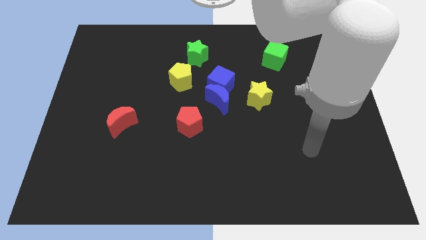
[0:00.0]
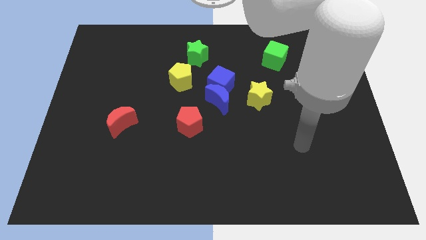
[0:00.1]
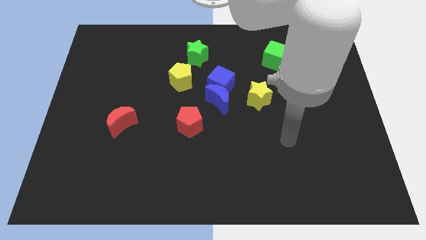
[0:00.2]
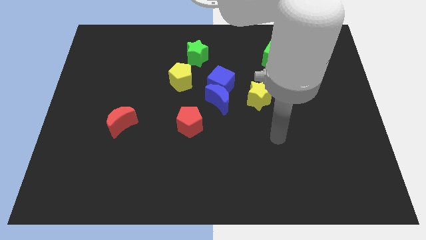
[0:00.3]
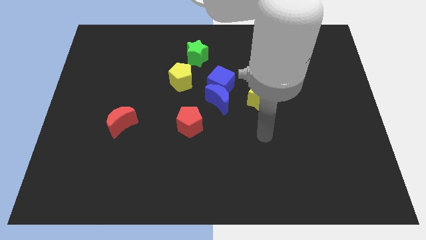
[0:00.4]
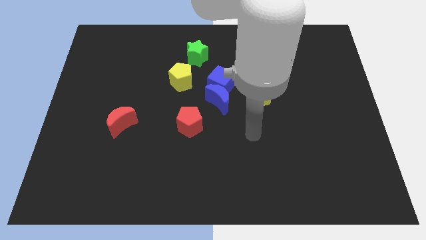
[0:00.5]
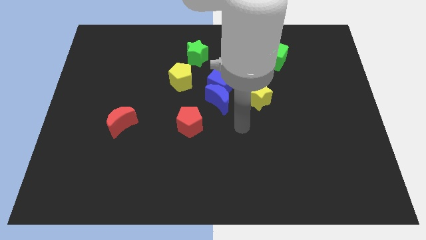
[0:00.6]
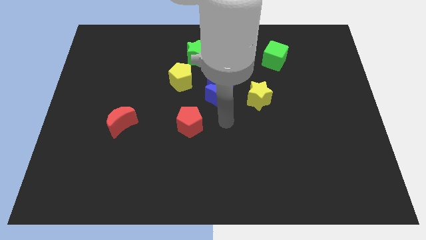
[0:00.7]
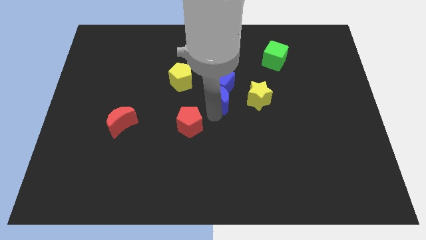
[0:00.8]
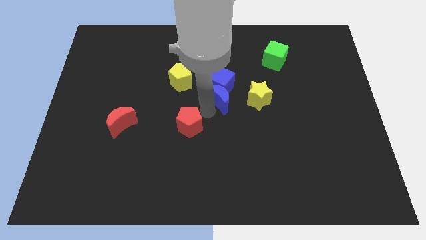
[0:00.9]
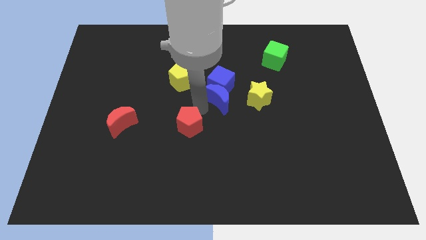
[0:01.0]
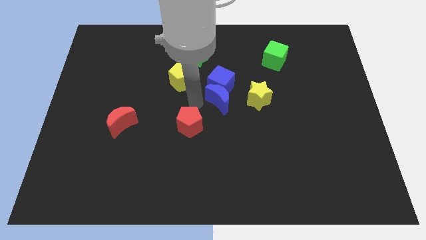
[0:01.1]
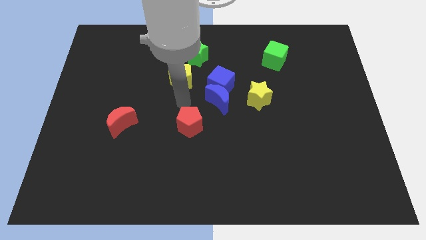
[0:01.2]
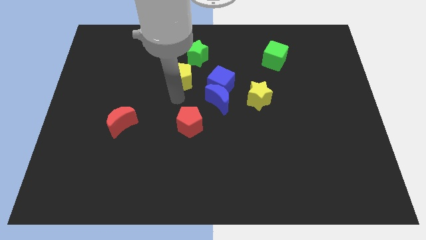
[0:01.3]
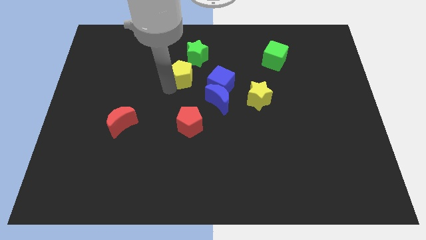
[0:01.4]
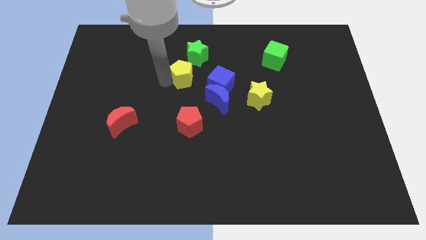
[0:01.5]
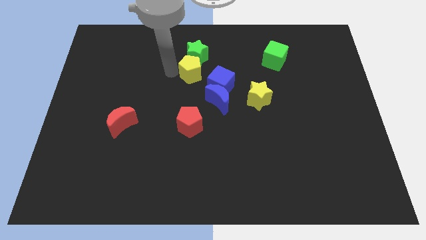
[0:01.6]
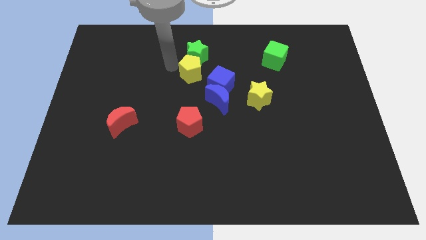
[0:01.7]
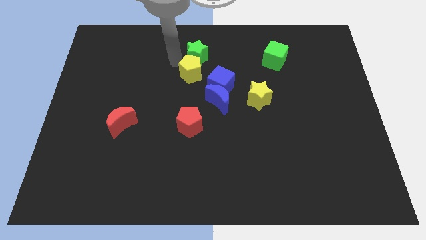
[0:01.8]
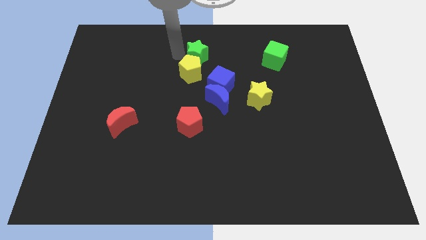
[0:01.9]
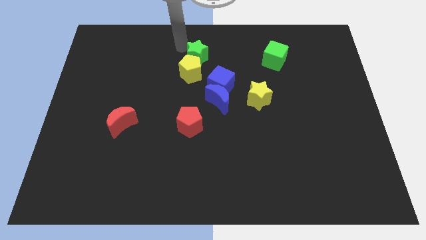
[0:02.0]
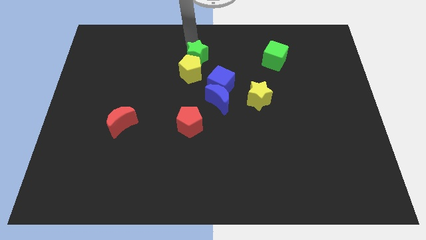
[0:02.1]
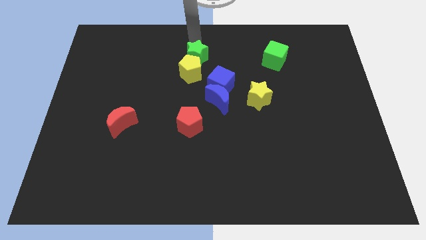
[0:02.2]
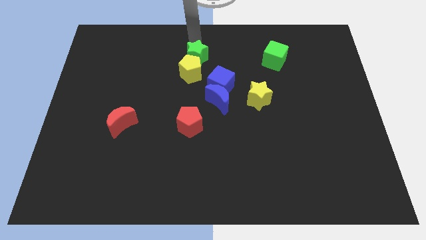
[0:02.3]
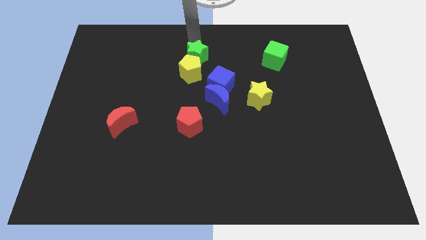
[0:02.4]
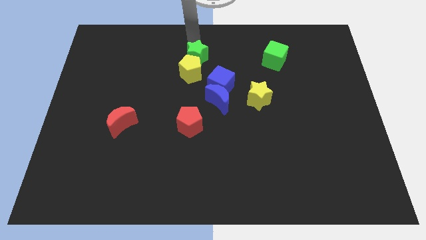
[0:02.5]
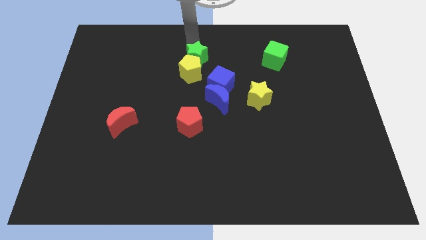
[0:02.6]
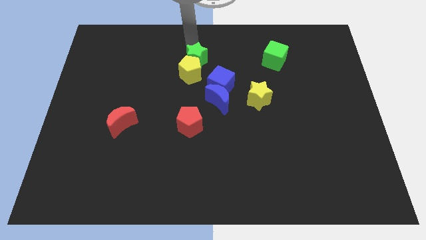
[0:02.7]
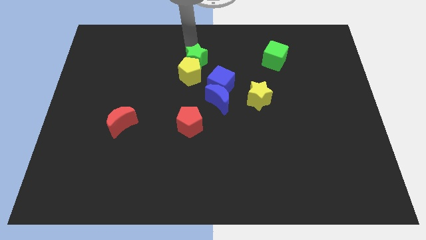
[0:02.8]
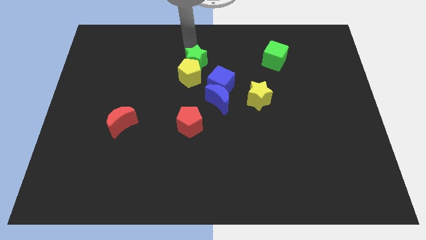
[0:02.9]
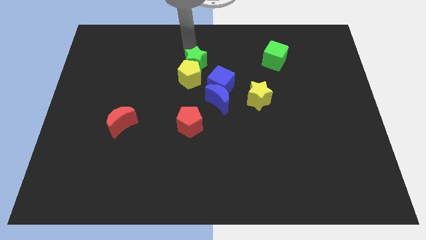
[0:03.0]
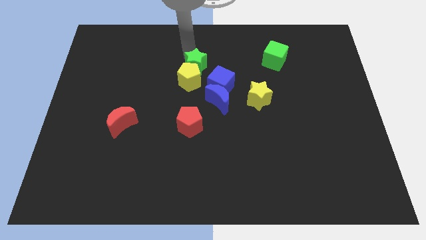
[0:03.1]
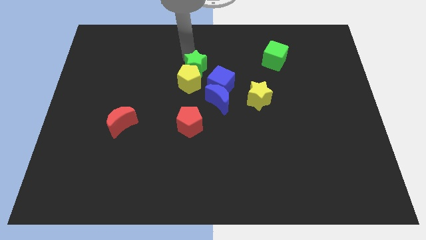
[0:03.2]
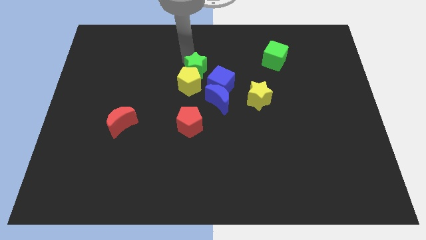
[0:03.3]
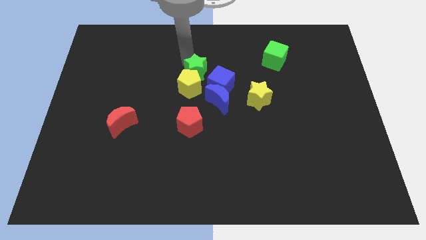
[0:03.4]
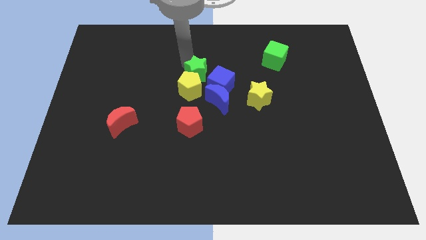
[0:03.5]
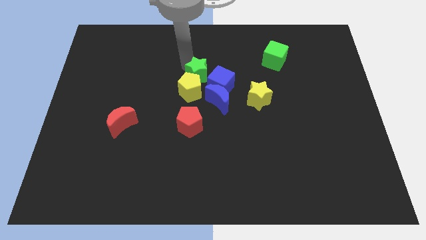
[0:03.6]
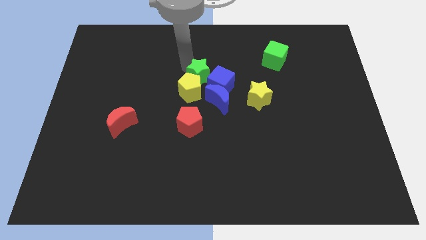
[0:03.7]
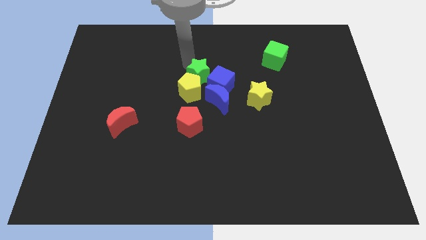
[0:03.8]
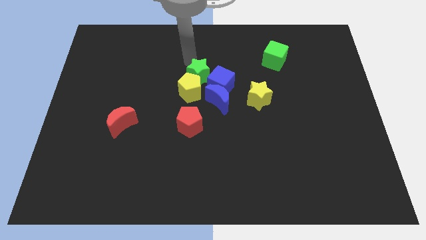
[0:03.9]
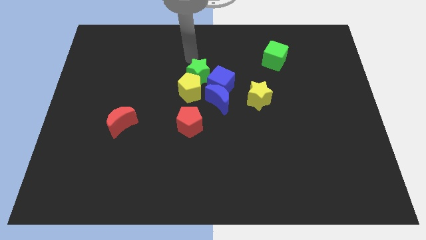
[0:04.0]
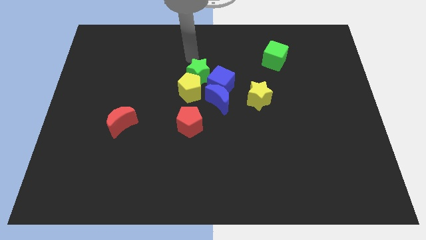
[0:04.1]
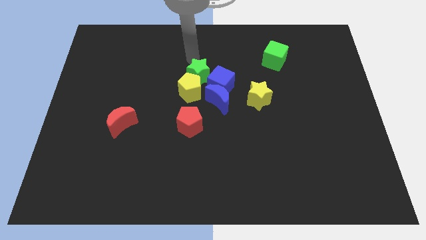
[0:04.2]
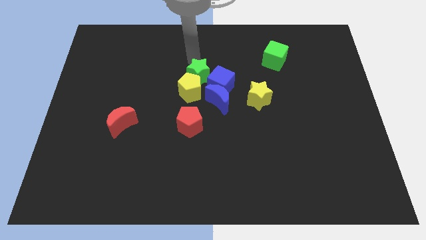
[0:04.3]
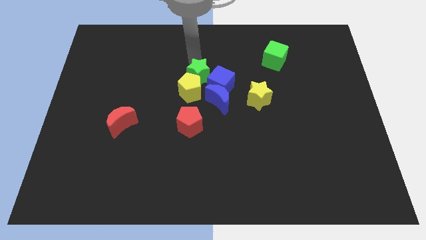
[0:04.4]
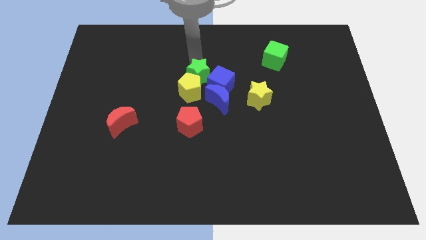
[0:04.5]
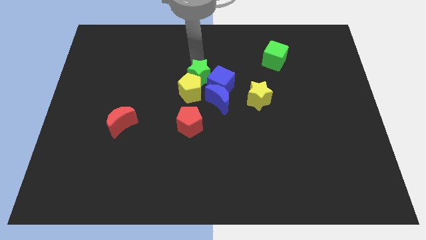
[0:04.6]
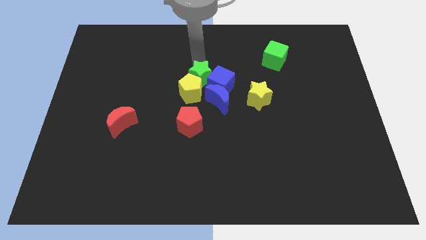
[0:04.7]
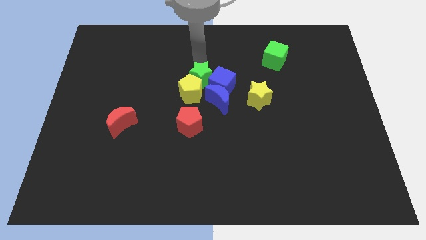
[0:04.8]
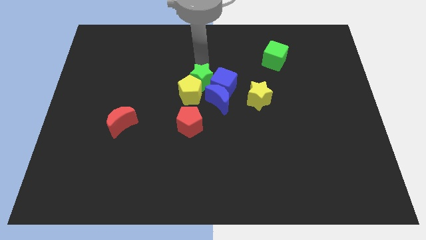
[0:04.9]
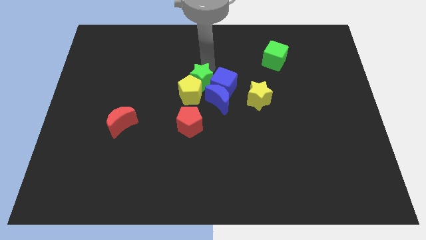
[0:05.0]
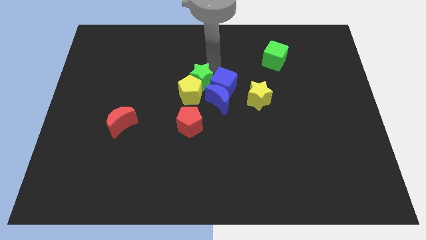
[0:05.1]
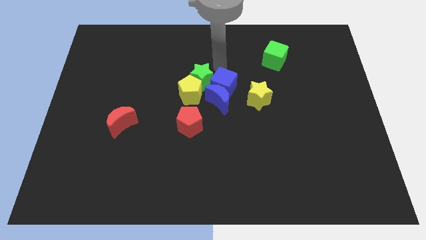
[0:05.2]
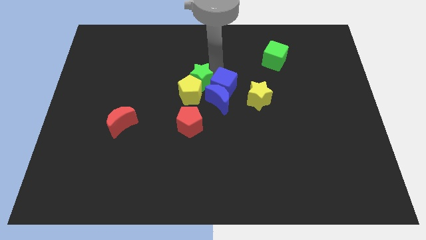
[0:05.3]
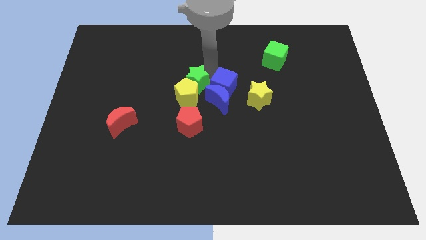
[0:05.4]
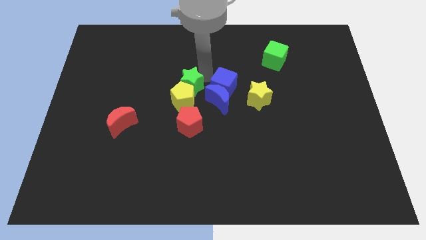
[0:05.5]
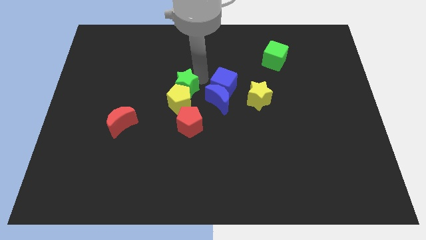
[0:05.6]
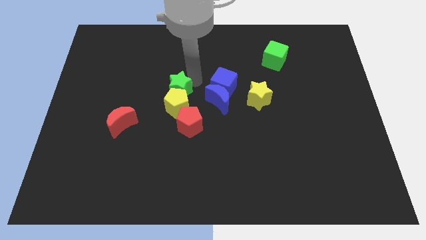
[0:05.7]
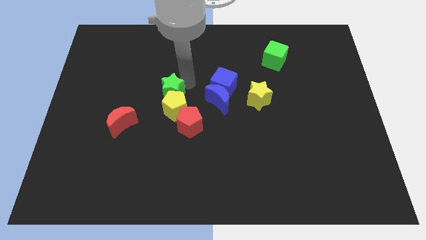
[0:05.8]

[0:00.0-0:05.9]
slide the green star to the top left of the red pentagon

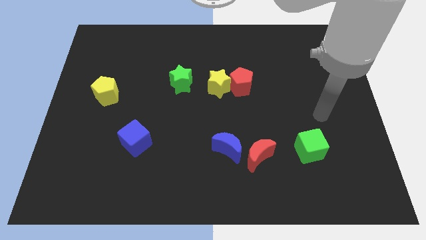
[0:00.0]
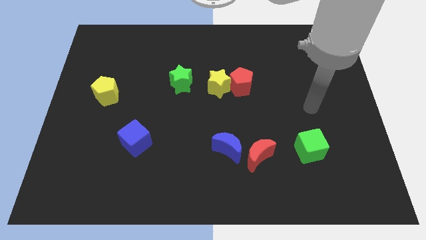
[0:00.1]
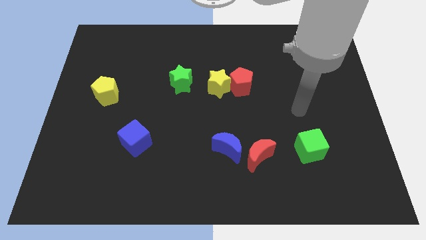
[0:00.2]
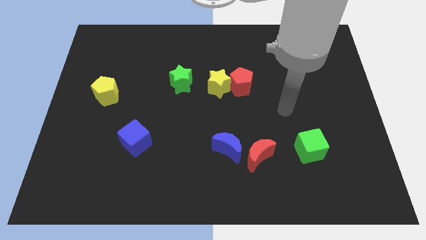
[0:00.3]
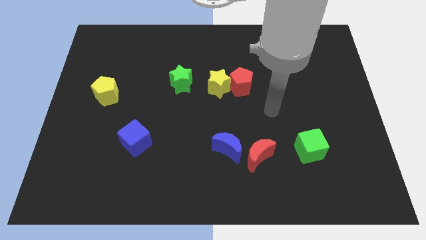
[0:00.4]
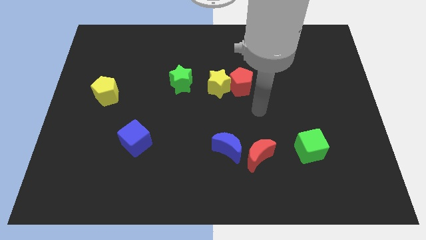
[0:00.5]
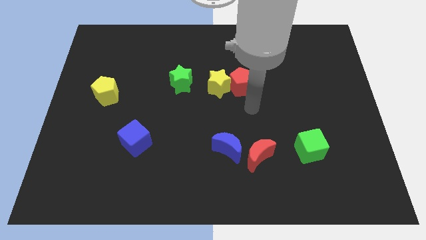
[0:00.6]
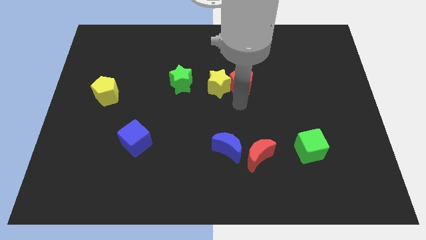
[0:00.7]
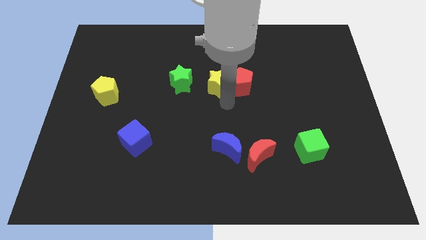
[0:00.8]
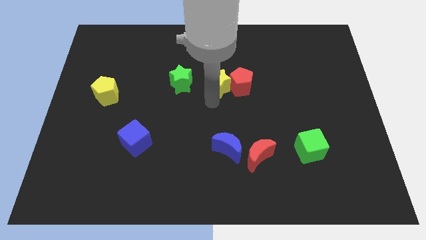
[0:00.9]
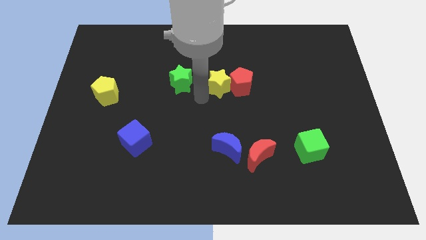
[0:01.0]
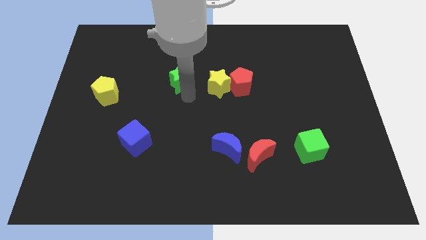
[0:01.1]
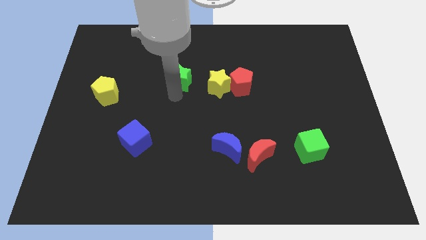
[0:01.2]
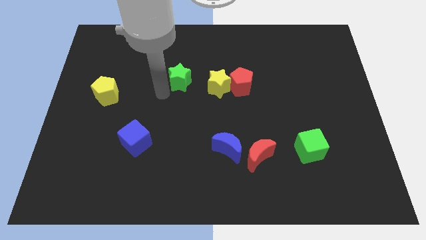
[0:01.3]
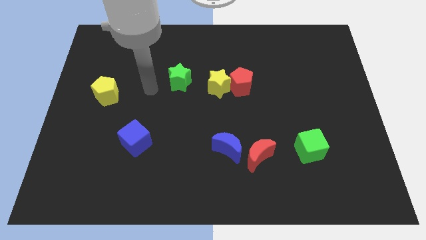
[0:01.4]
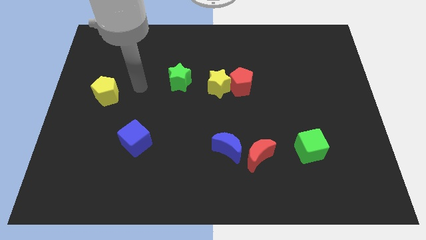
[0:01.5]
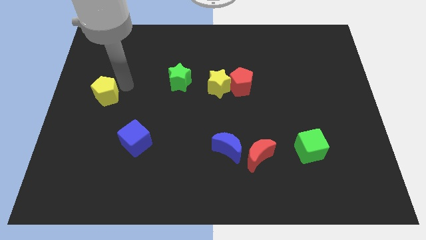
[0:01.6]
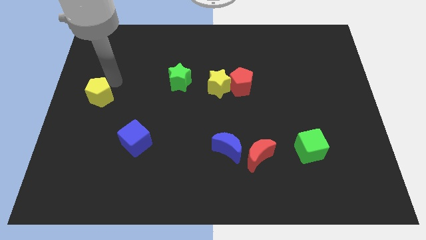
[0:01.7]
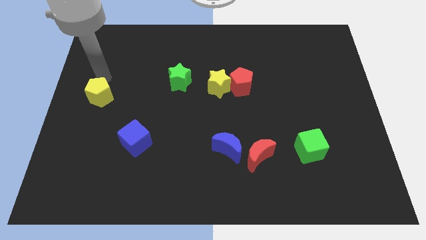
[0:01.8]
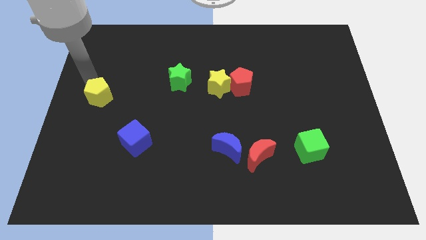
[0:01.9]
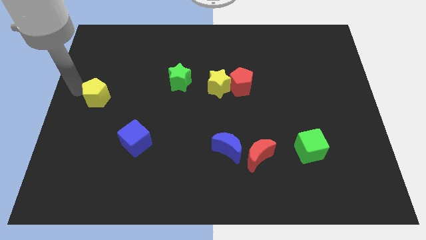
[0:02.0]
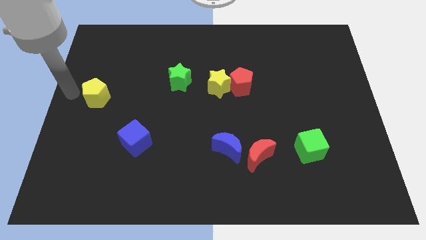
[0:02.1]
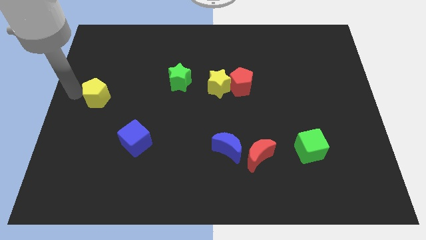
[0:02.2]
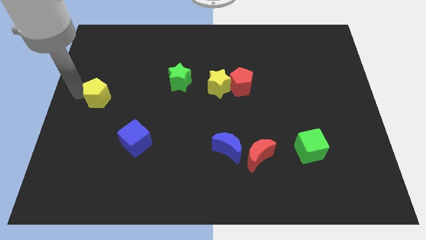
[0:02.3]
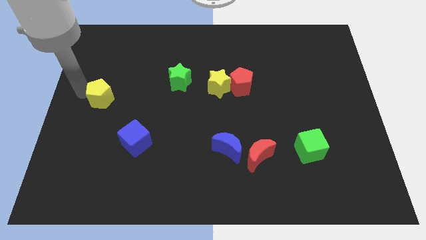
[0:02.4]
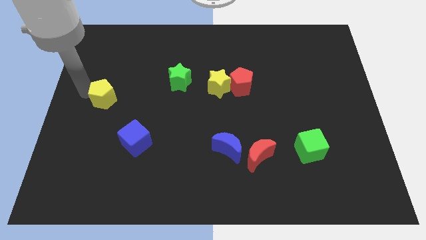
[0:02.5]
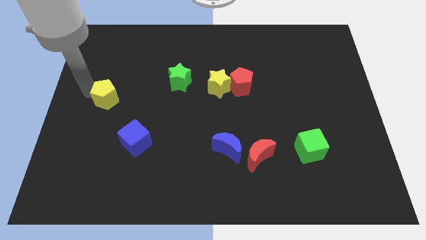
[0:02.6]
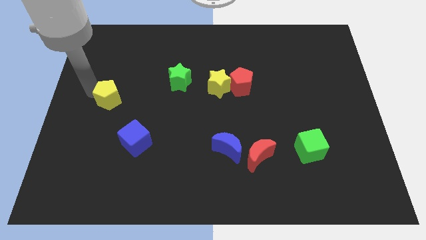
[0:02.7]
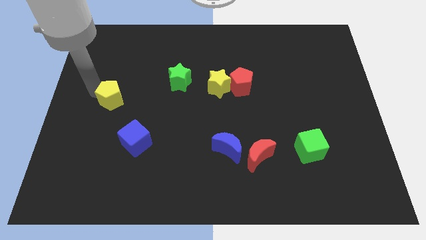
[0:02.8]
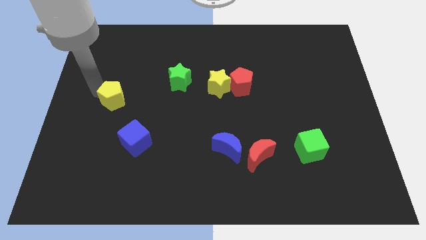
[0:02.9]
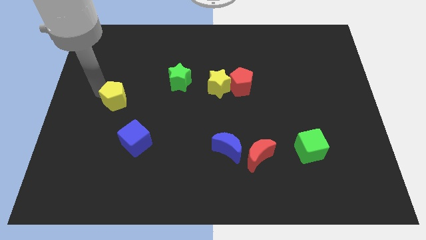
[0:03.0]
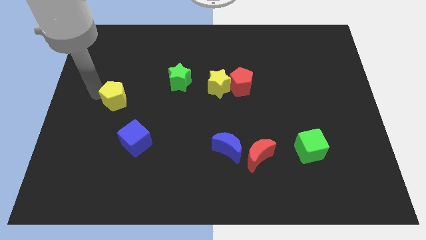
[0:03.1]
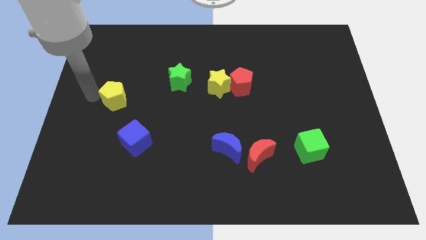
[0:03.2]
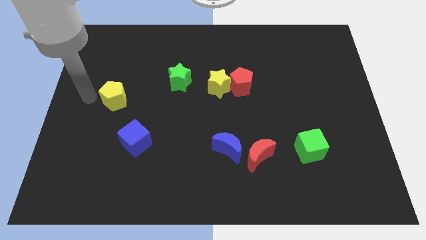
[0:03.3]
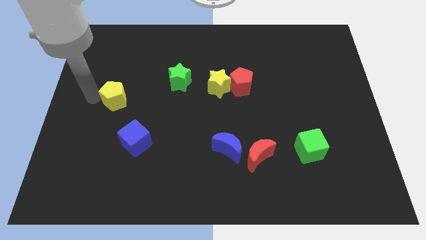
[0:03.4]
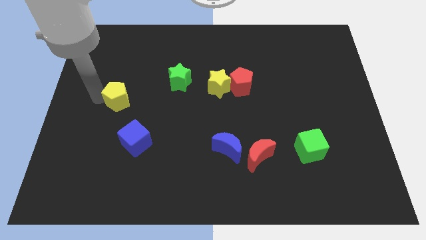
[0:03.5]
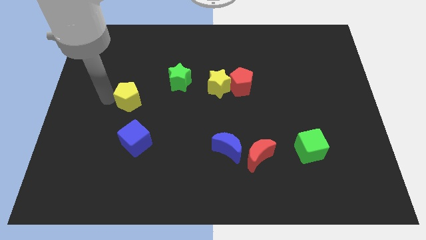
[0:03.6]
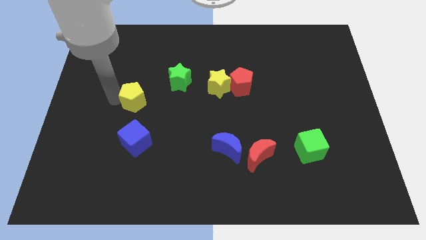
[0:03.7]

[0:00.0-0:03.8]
slide the yellow pentagon diagonally down and to the left of the green star
